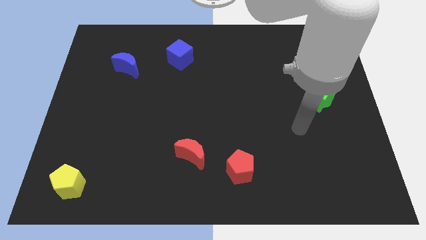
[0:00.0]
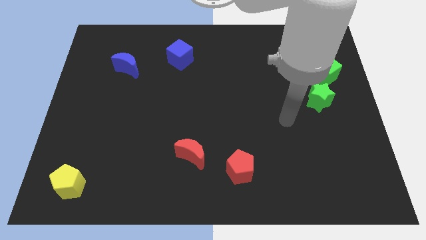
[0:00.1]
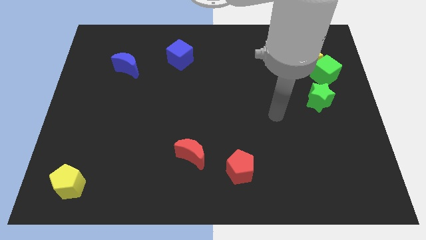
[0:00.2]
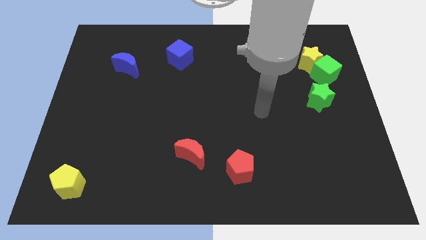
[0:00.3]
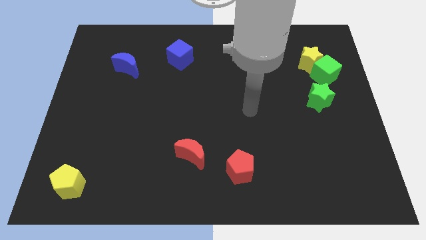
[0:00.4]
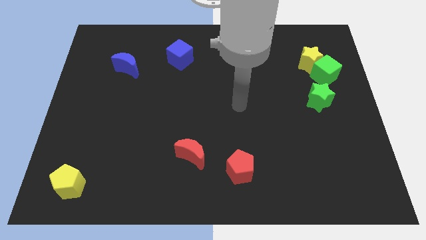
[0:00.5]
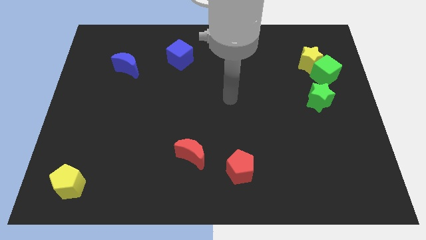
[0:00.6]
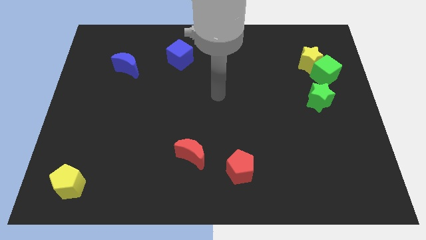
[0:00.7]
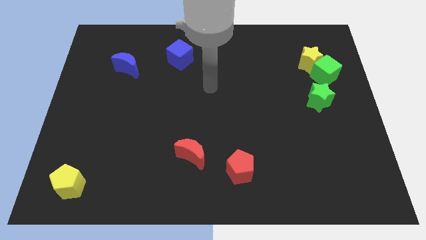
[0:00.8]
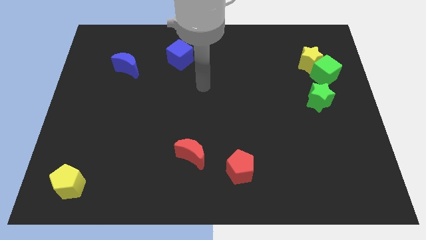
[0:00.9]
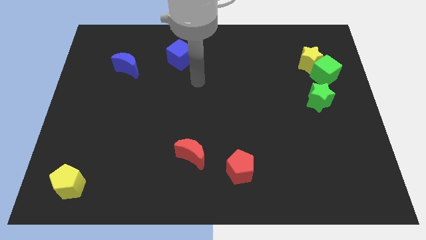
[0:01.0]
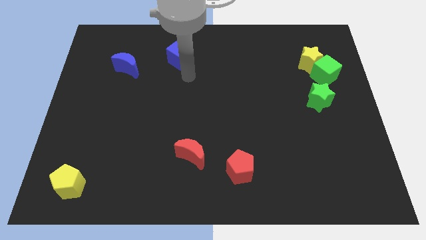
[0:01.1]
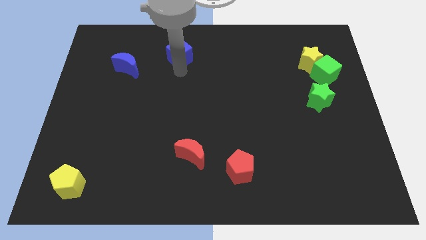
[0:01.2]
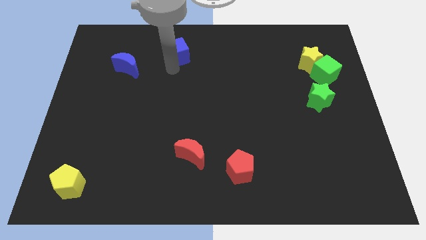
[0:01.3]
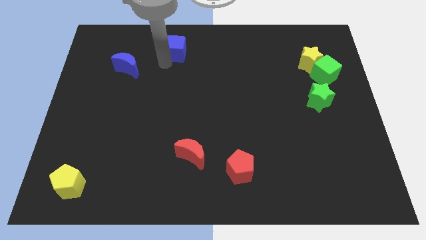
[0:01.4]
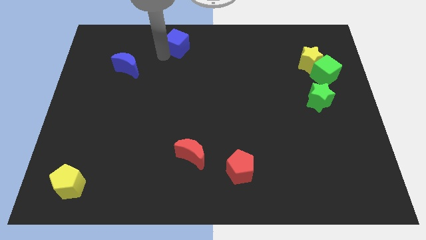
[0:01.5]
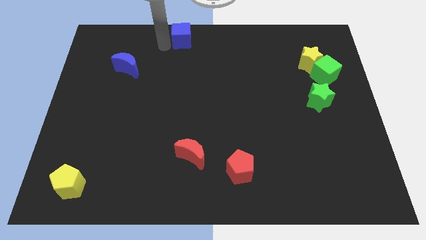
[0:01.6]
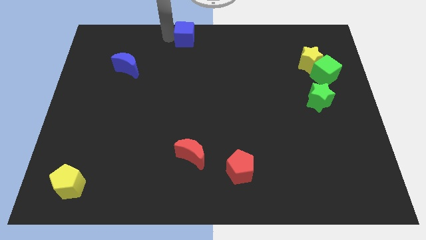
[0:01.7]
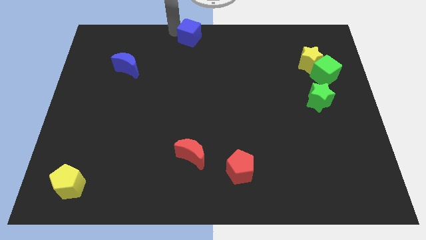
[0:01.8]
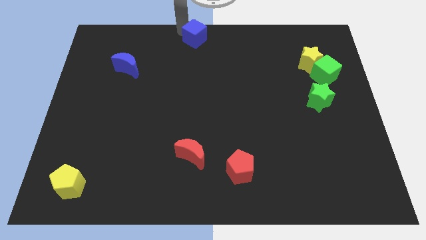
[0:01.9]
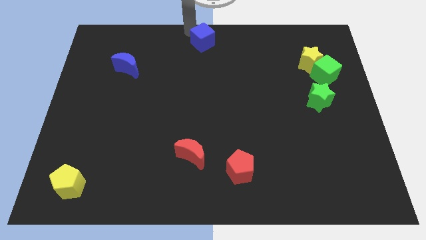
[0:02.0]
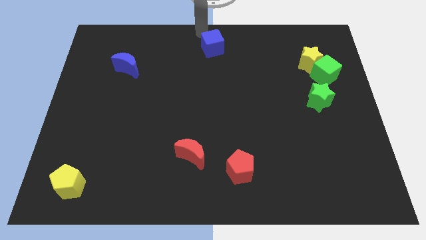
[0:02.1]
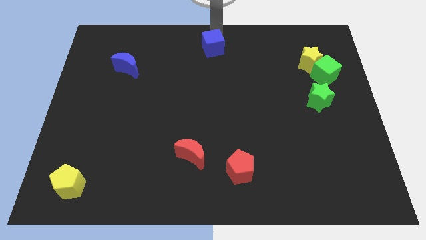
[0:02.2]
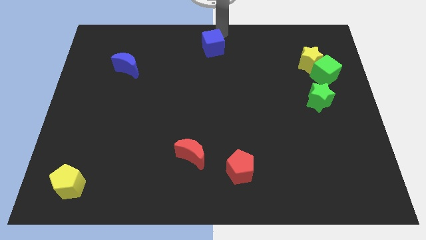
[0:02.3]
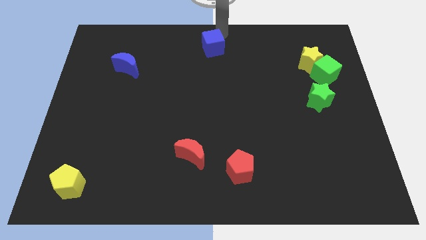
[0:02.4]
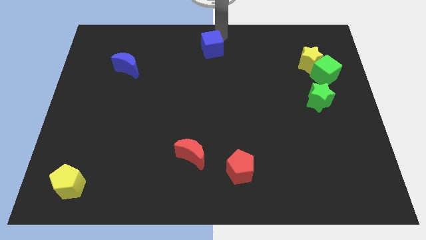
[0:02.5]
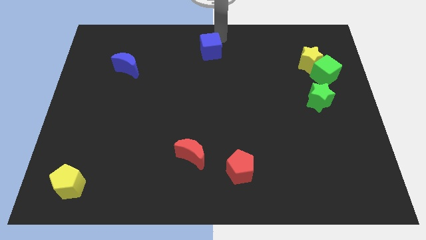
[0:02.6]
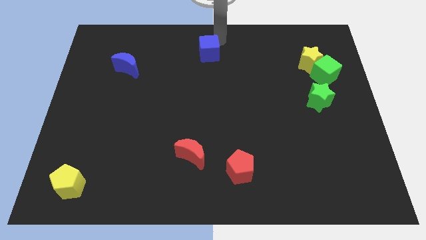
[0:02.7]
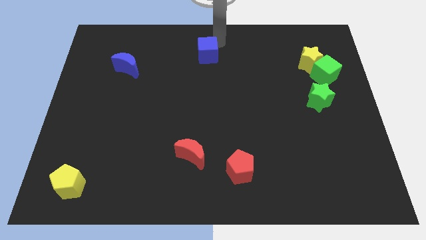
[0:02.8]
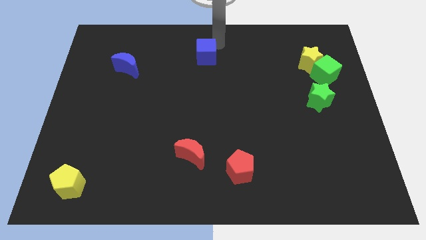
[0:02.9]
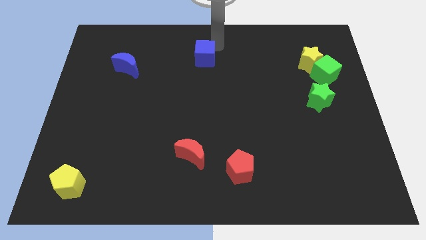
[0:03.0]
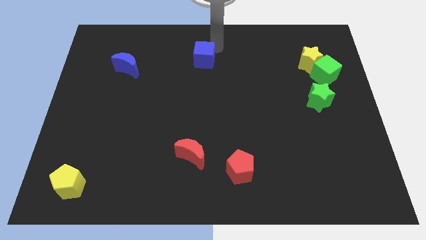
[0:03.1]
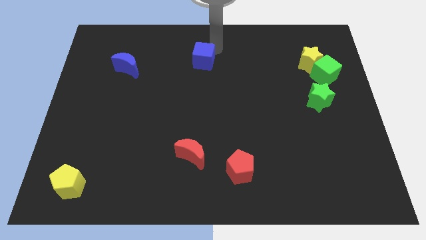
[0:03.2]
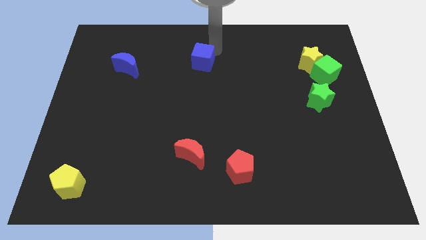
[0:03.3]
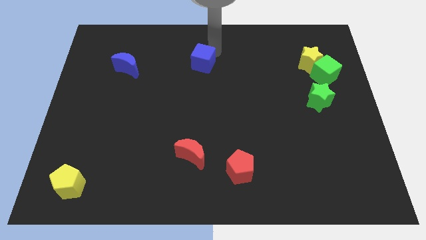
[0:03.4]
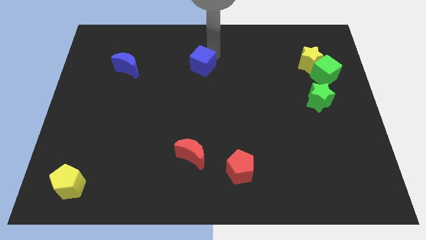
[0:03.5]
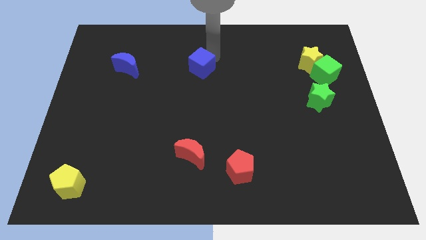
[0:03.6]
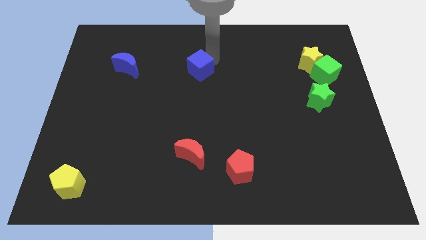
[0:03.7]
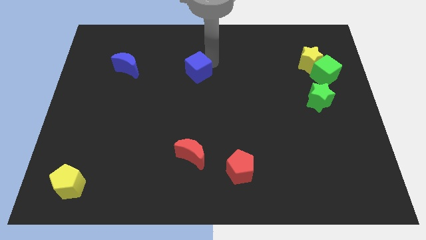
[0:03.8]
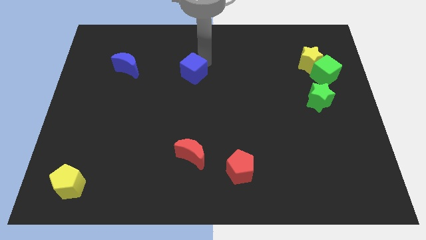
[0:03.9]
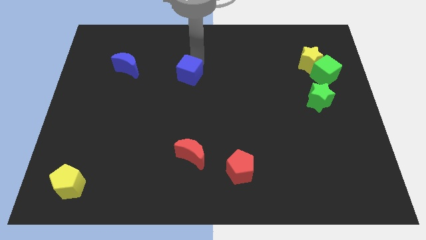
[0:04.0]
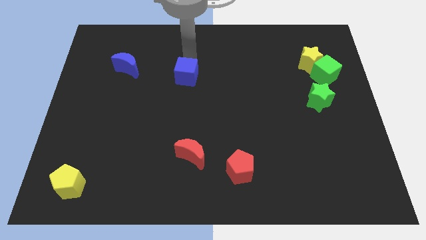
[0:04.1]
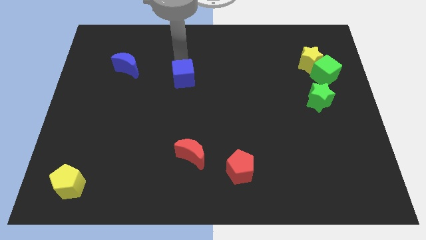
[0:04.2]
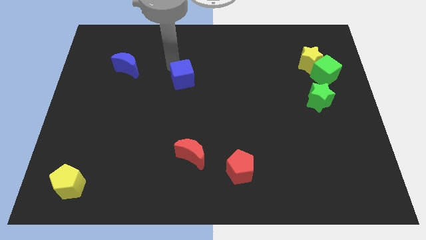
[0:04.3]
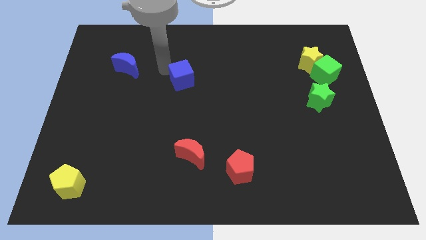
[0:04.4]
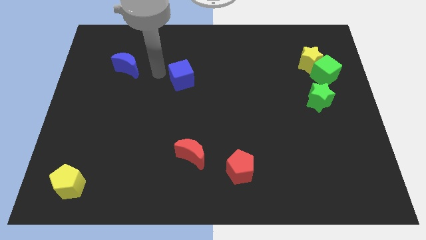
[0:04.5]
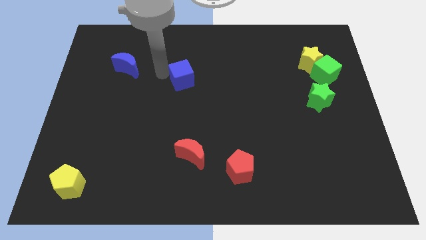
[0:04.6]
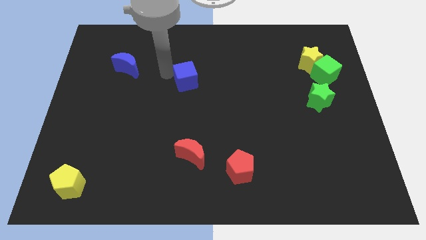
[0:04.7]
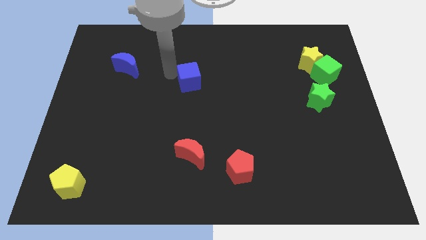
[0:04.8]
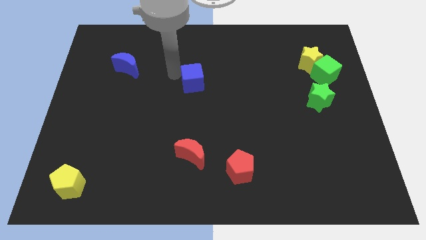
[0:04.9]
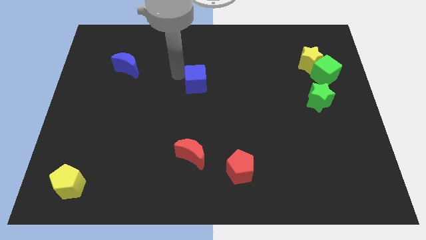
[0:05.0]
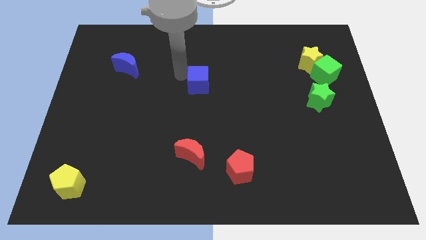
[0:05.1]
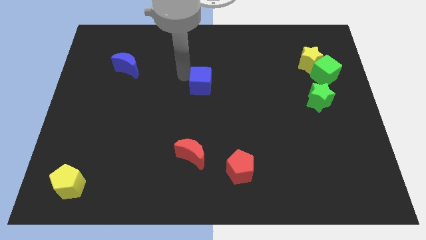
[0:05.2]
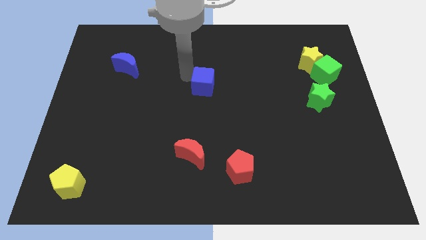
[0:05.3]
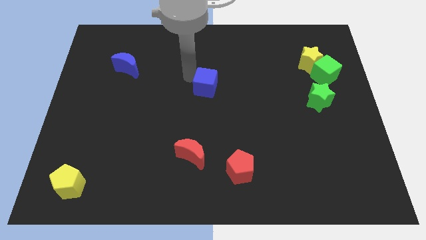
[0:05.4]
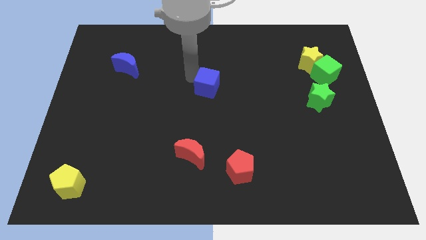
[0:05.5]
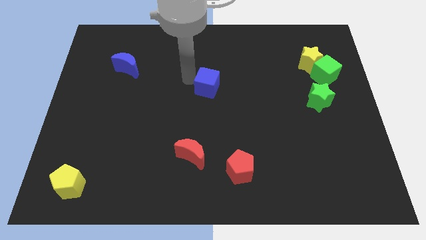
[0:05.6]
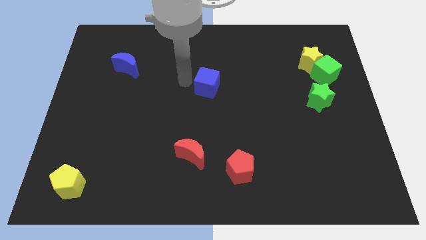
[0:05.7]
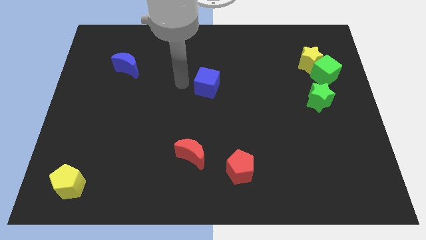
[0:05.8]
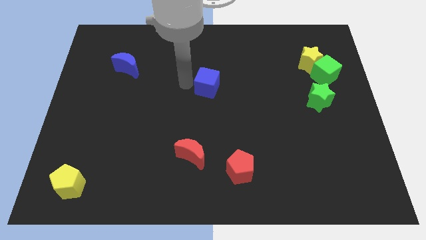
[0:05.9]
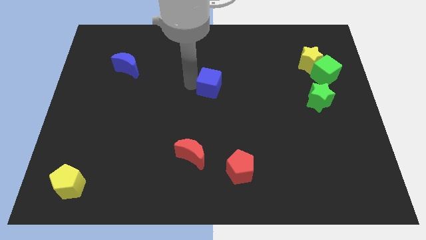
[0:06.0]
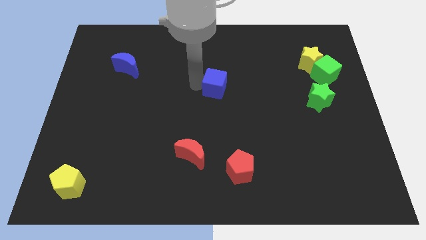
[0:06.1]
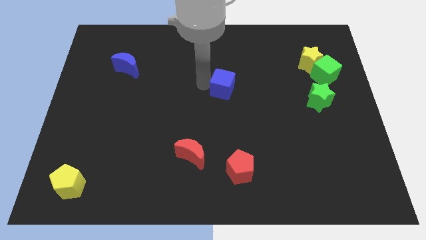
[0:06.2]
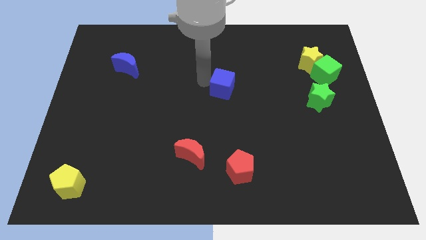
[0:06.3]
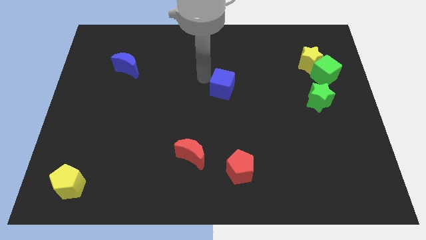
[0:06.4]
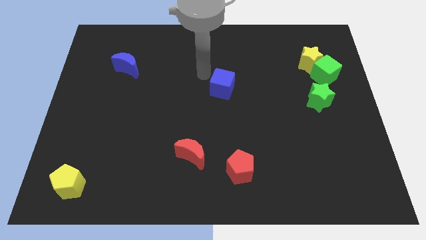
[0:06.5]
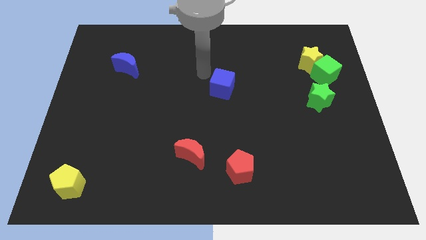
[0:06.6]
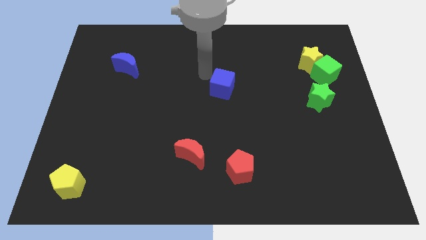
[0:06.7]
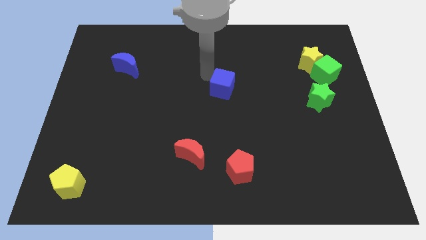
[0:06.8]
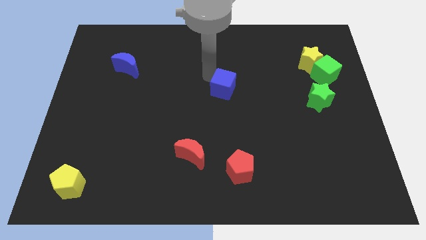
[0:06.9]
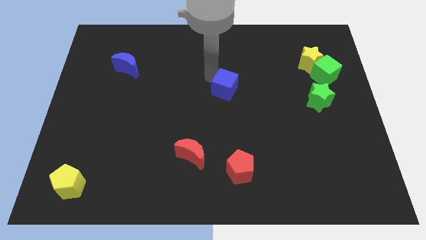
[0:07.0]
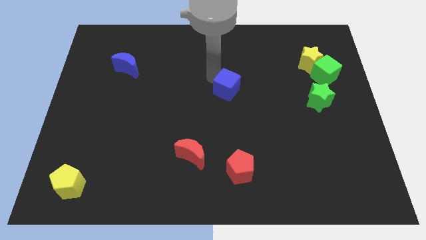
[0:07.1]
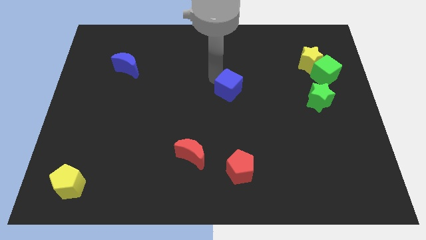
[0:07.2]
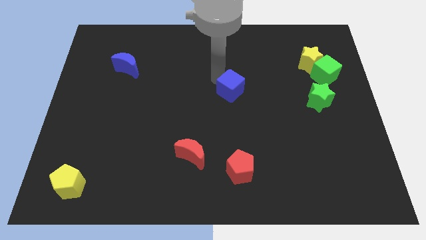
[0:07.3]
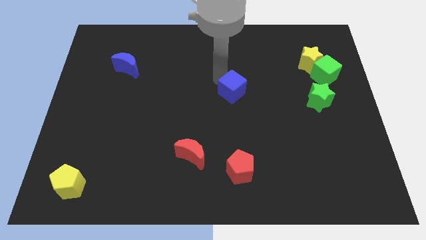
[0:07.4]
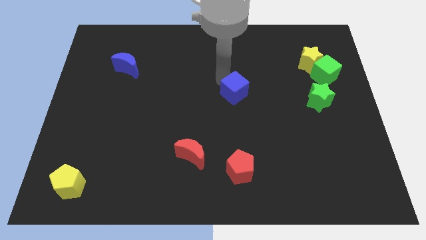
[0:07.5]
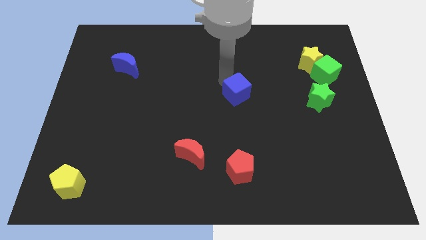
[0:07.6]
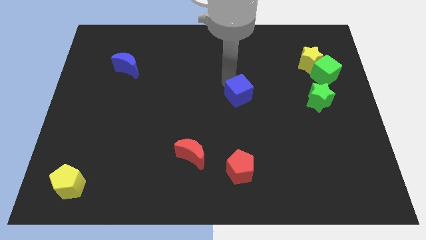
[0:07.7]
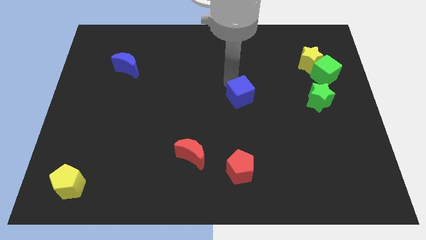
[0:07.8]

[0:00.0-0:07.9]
push the blue cube down and right diagonally

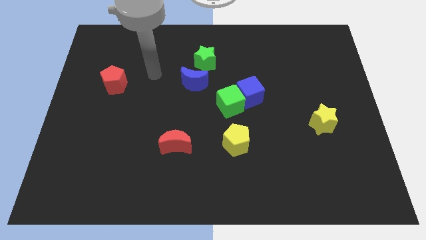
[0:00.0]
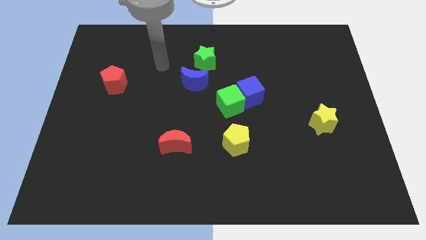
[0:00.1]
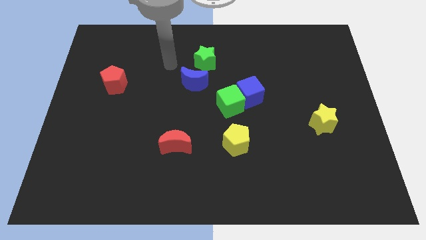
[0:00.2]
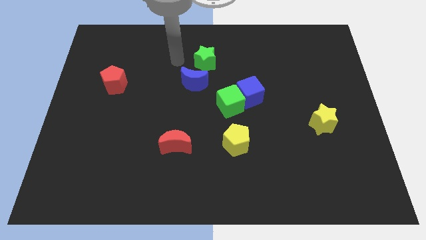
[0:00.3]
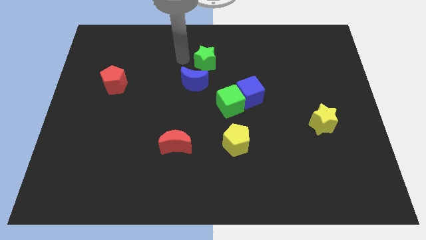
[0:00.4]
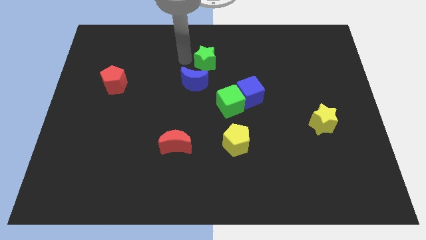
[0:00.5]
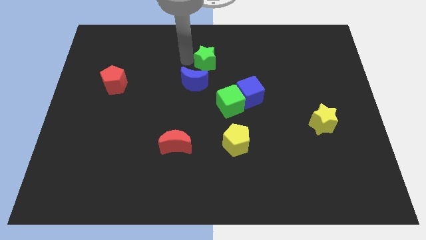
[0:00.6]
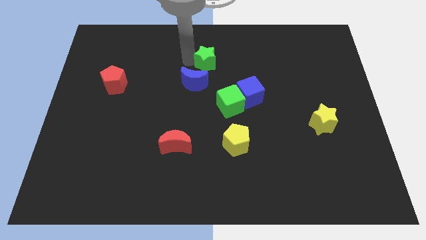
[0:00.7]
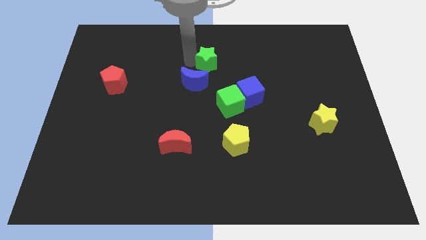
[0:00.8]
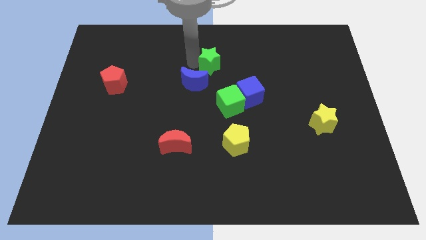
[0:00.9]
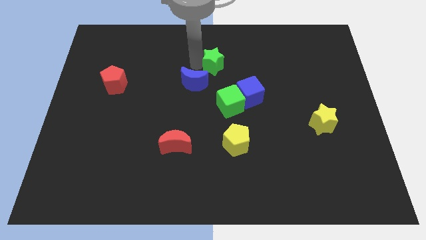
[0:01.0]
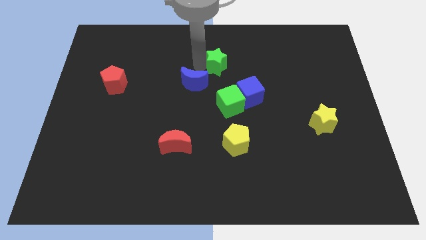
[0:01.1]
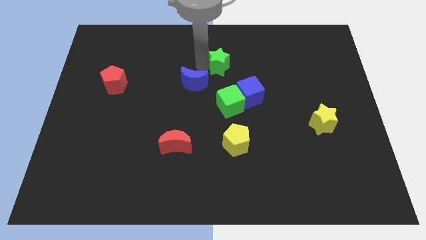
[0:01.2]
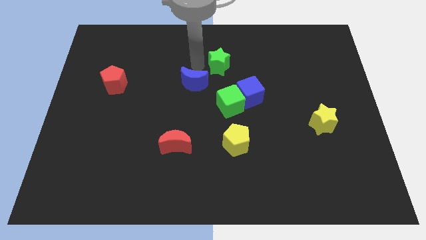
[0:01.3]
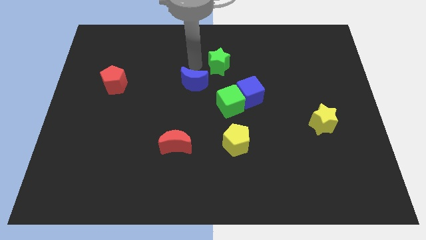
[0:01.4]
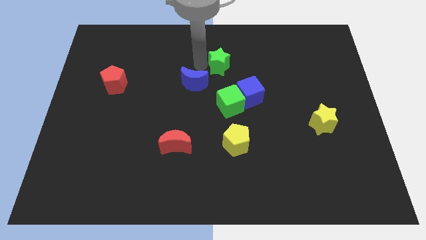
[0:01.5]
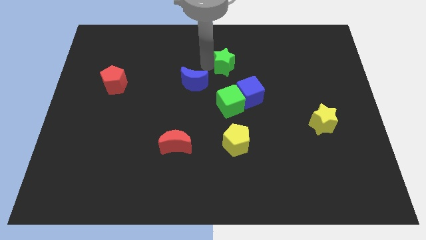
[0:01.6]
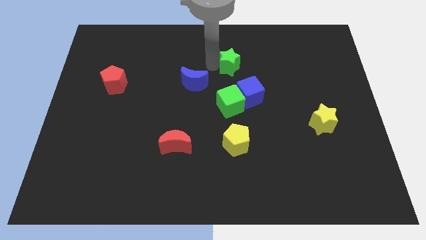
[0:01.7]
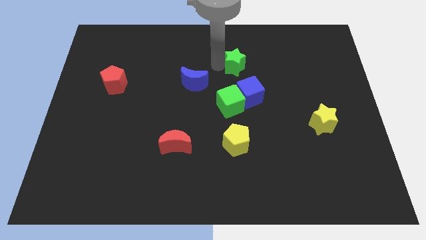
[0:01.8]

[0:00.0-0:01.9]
slightly push the green star right
